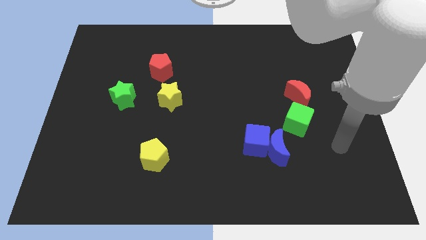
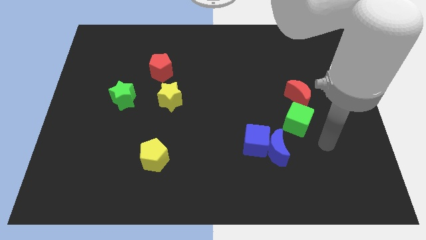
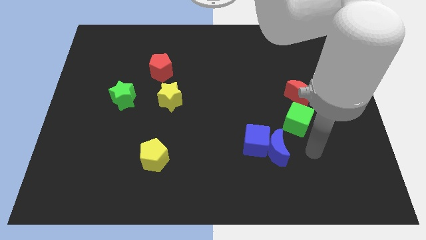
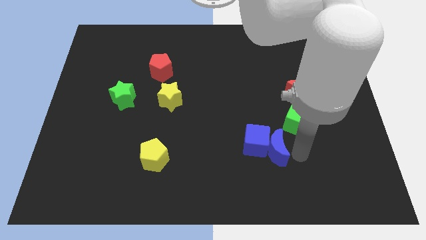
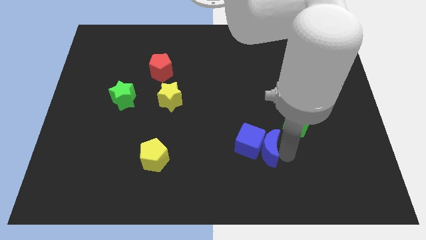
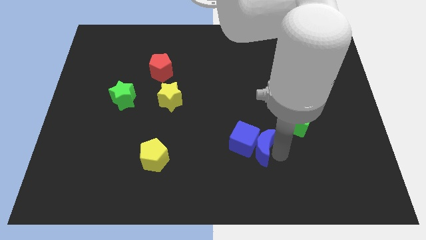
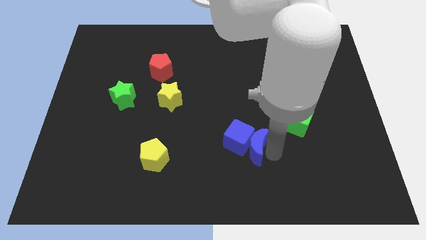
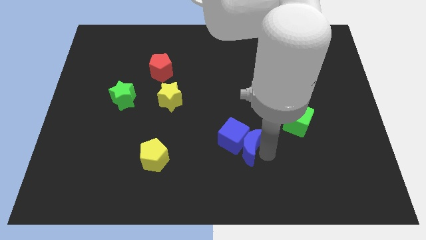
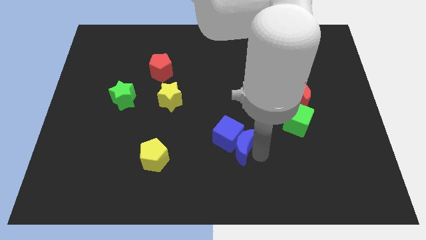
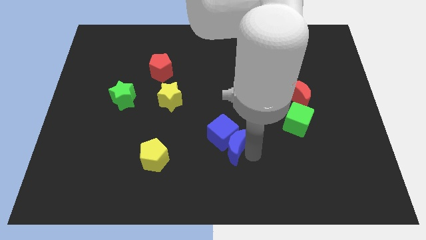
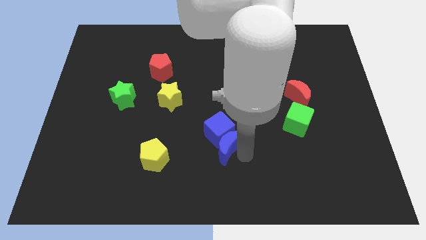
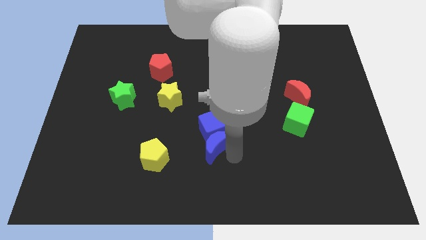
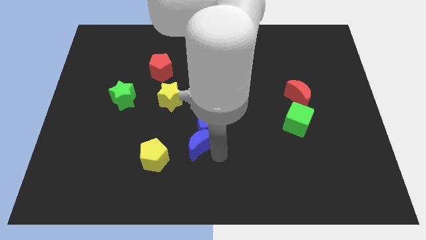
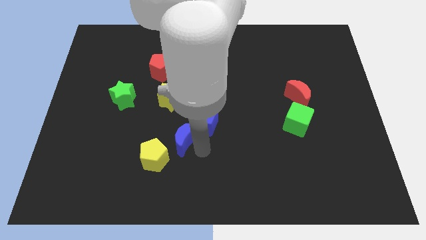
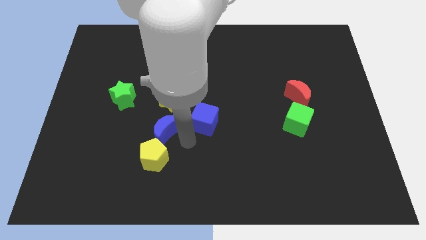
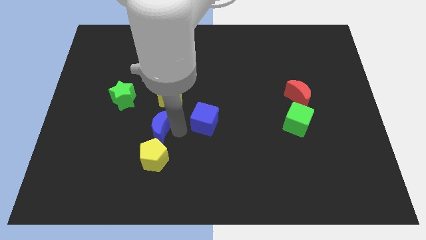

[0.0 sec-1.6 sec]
separate the blue cube from the blue moon

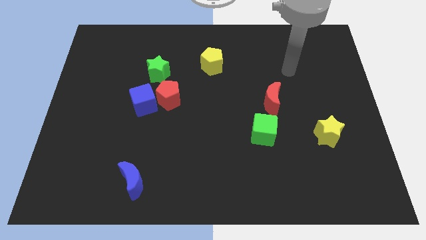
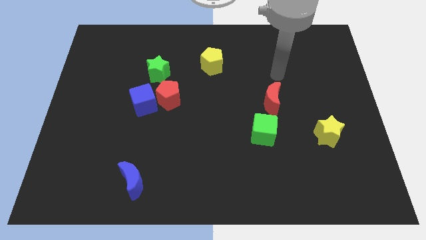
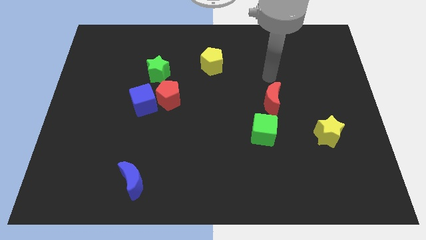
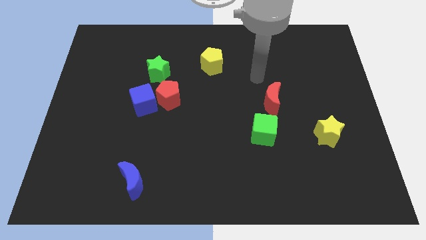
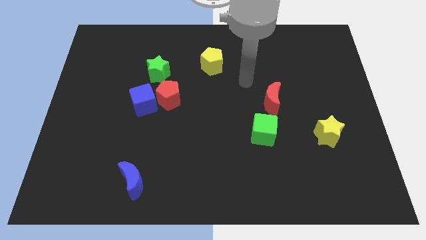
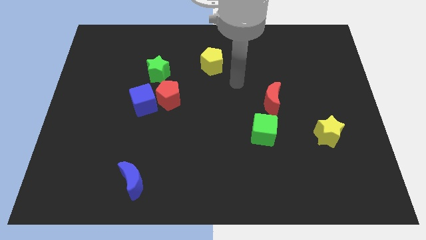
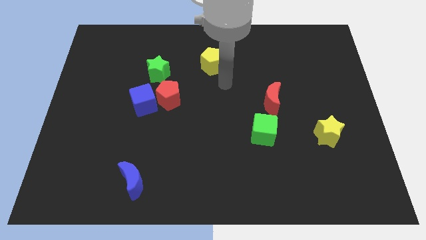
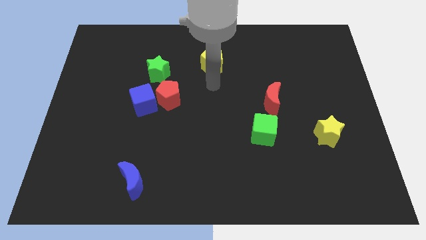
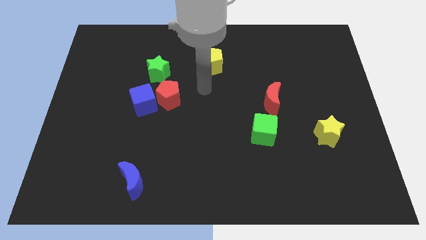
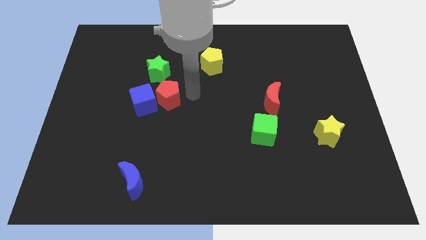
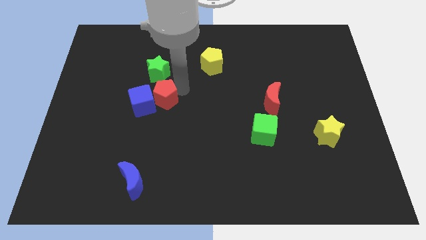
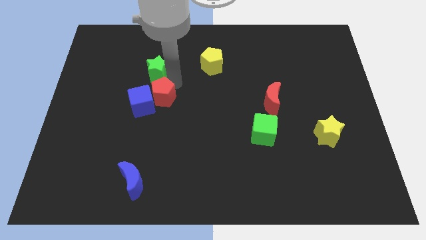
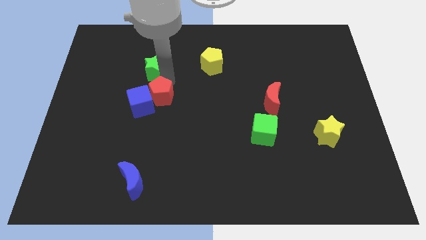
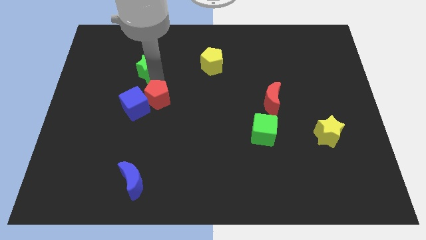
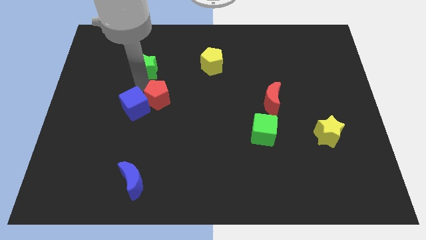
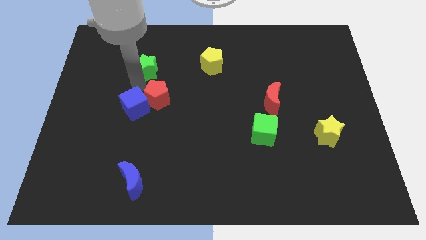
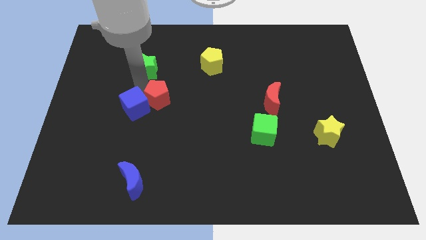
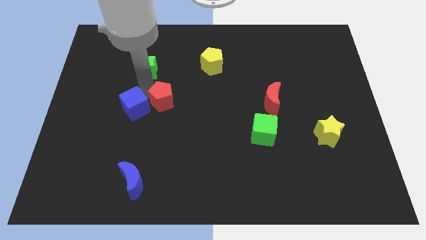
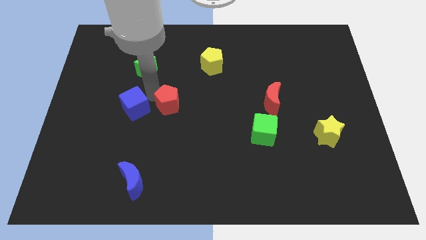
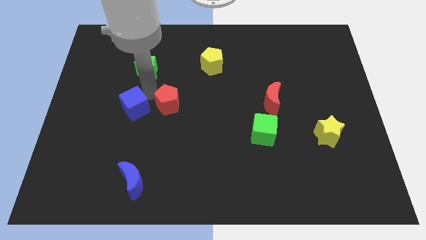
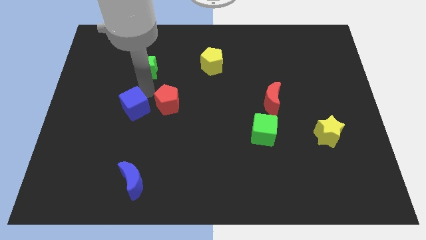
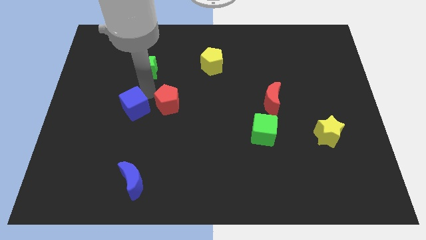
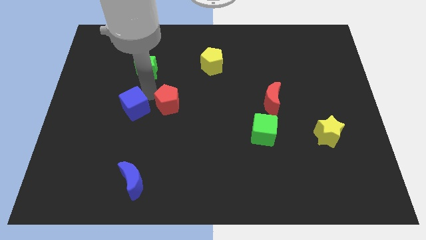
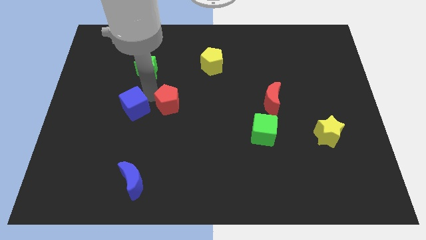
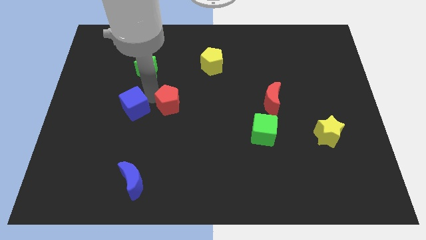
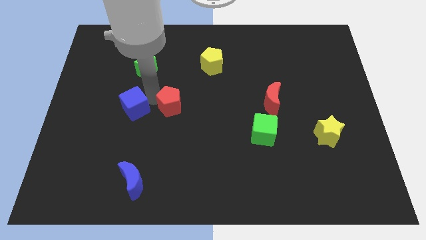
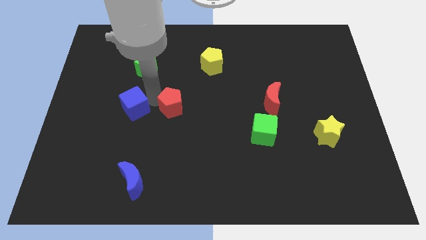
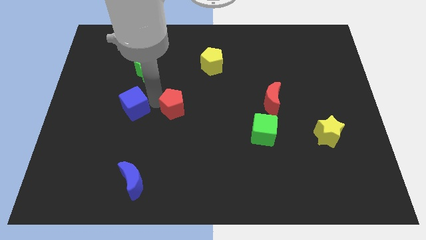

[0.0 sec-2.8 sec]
move the red pentagon away from the blue cube and green star

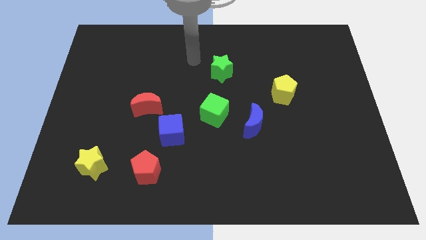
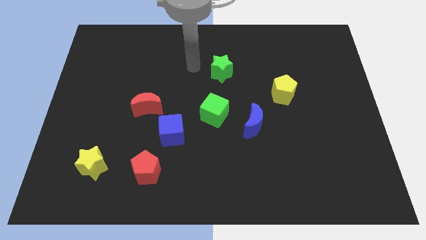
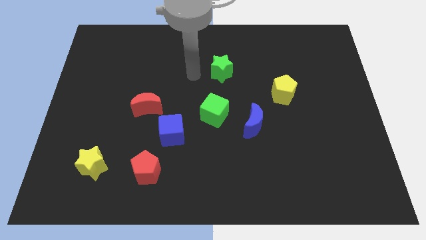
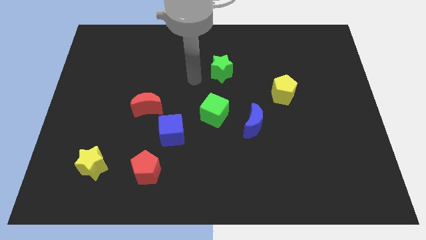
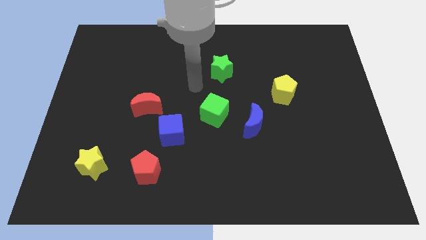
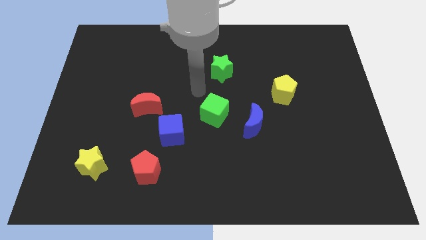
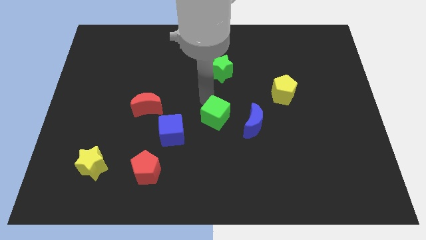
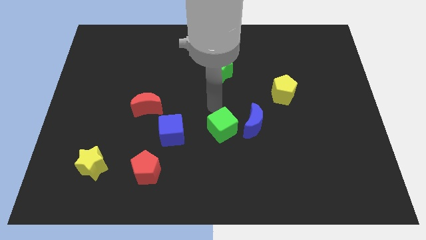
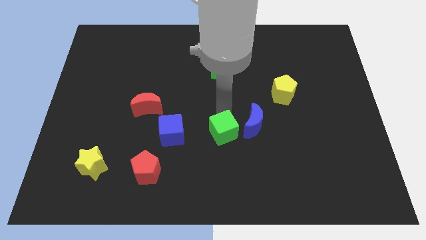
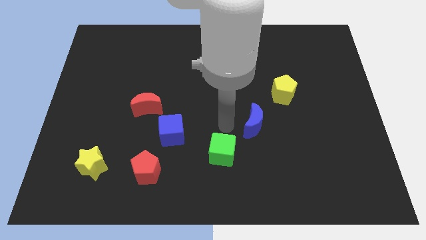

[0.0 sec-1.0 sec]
move the blue moon away from the green cube

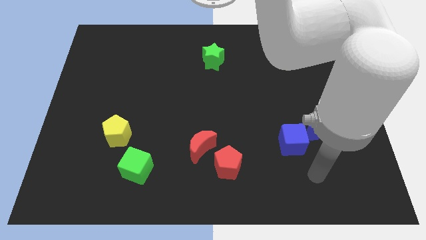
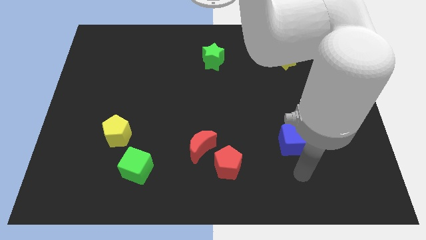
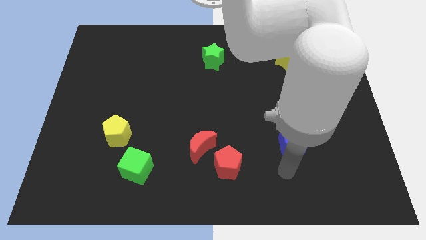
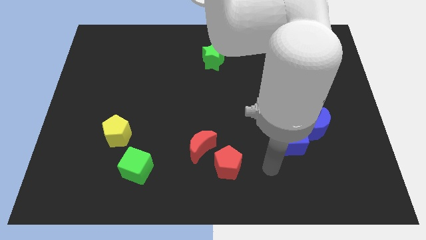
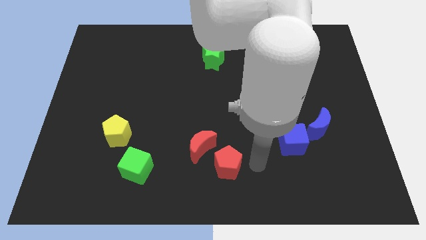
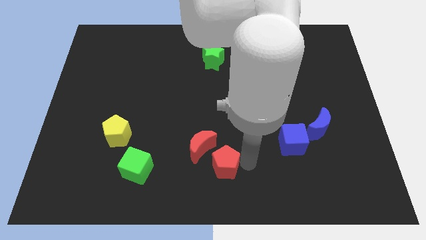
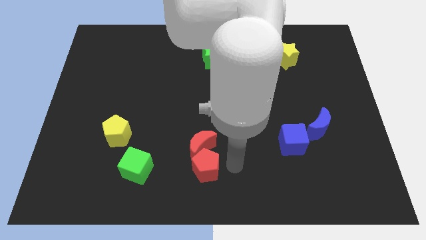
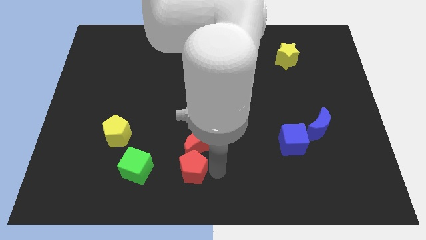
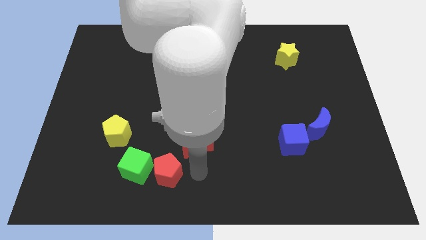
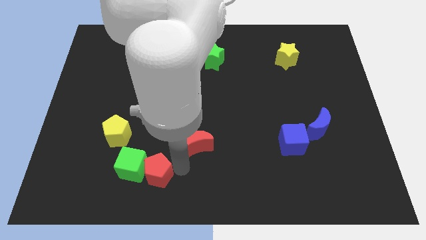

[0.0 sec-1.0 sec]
separate the red moon from the red pentagon

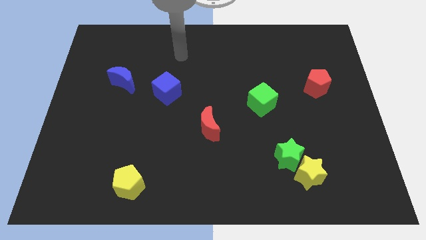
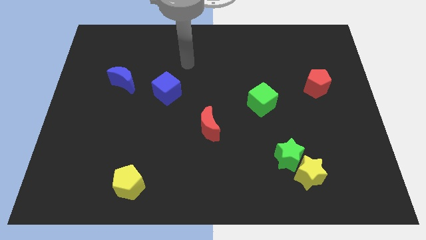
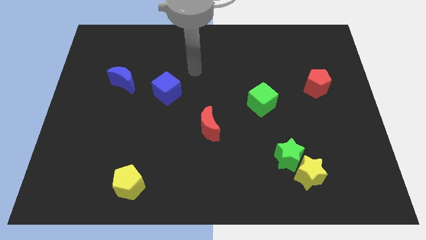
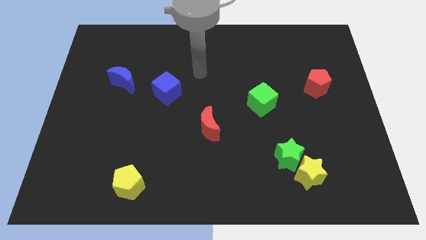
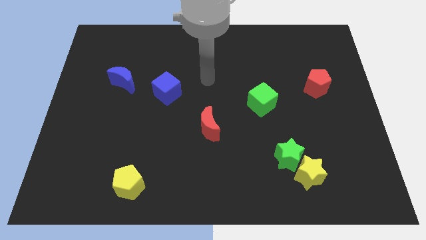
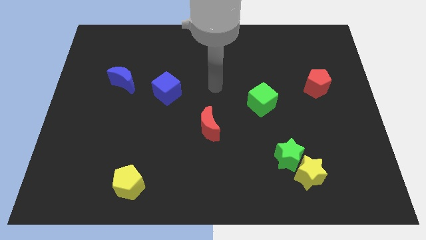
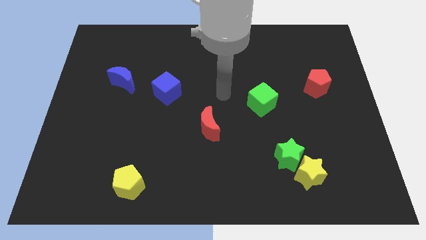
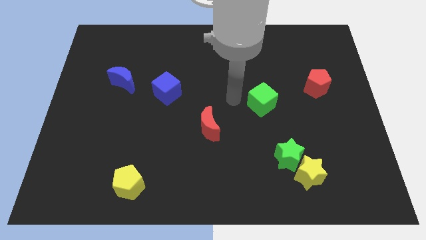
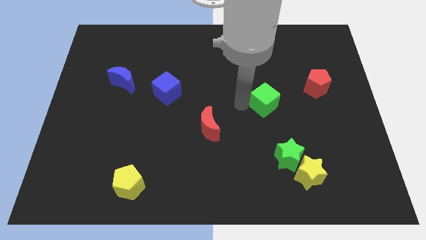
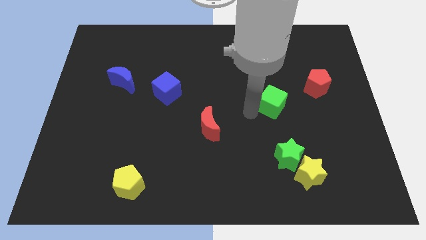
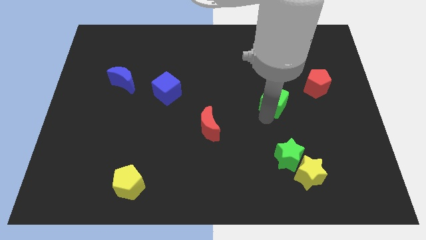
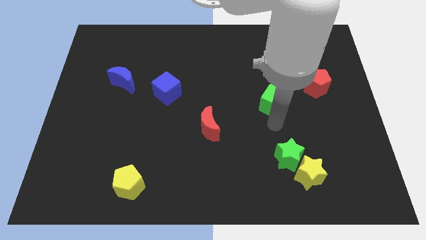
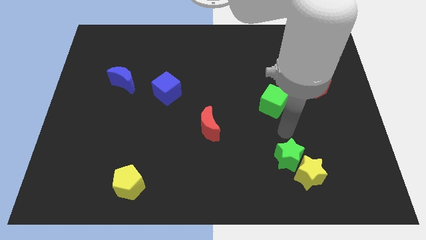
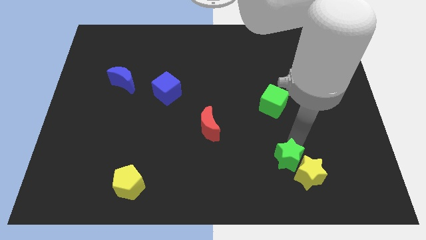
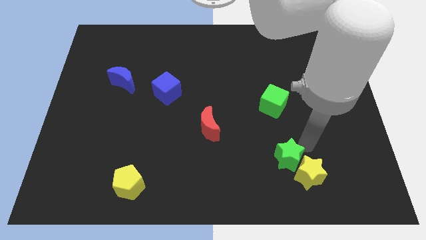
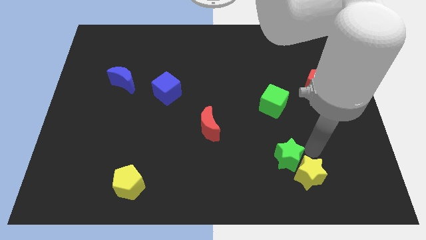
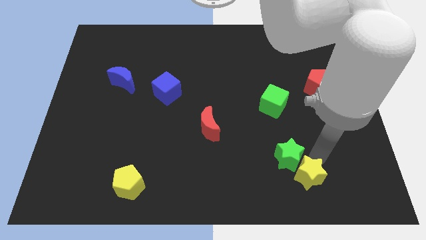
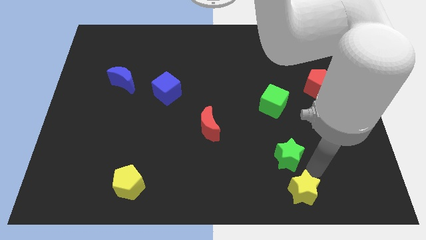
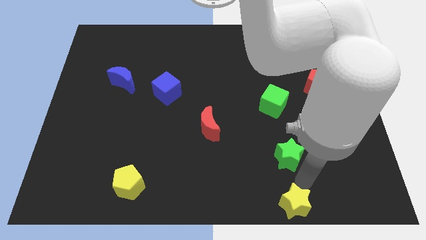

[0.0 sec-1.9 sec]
separate the green star from the yellow star

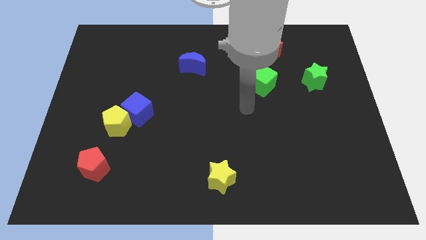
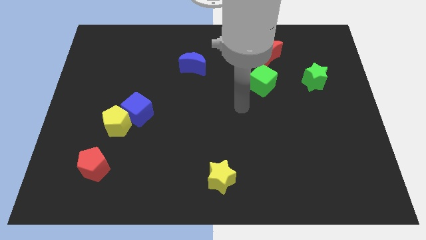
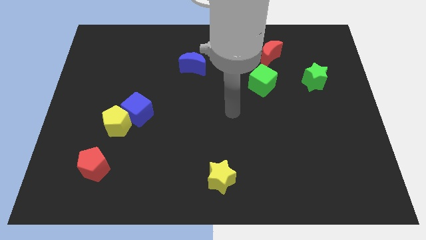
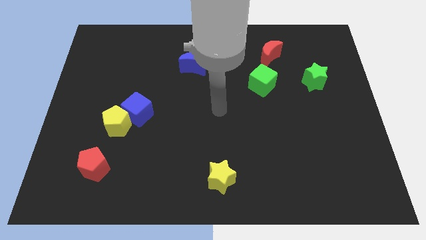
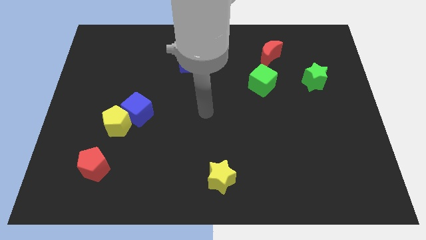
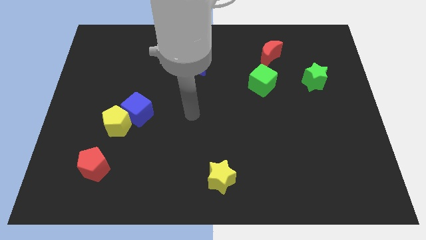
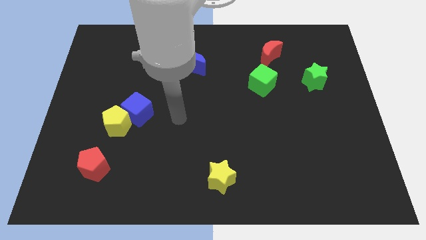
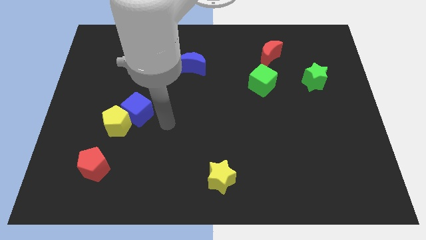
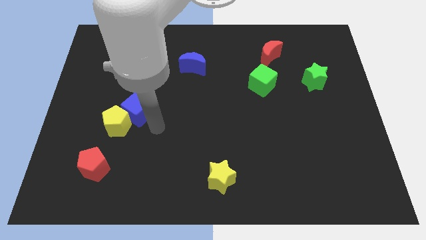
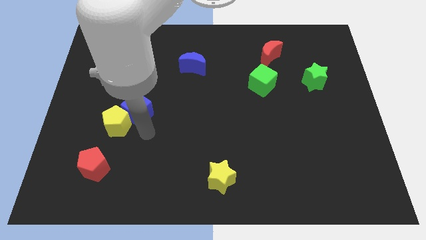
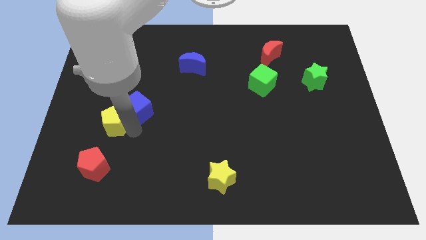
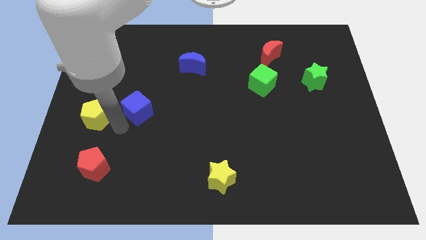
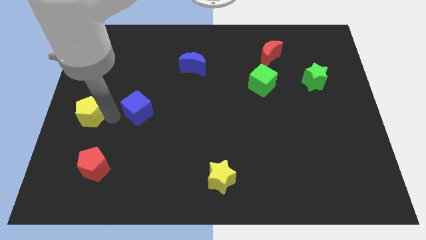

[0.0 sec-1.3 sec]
separate the blue cube from the yellow pentagon
